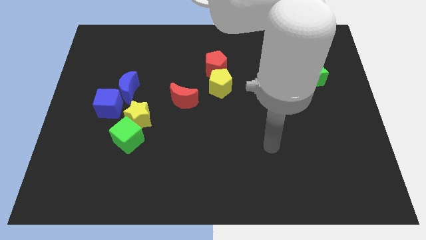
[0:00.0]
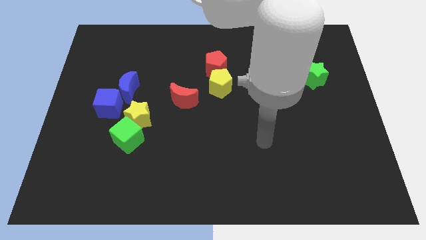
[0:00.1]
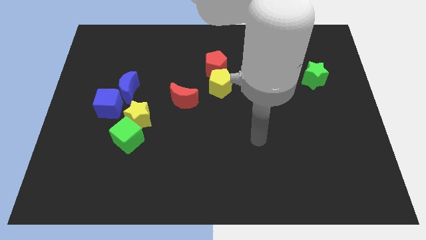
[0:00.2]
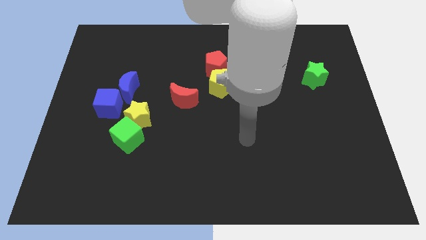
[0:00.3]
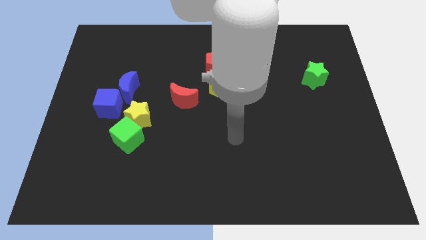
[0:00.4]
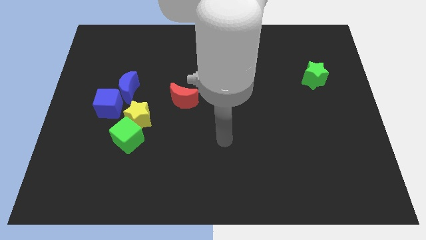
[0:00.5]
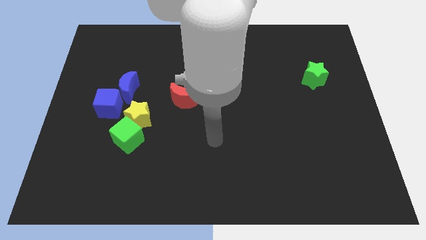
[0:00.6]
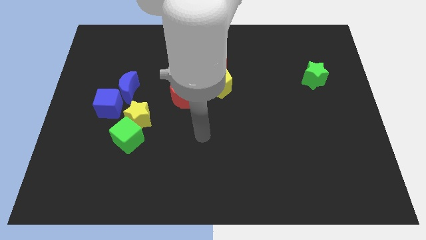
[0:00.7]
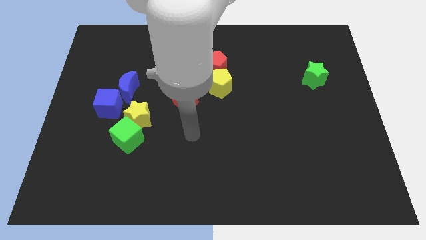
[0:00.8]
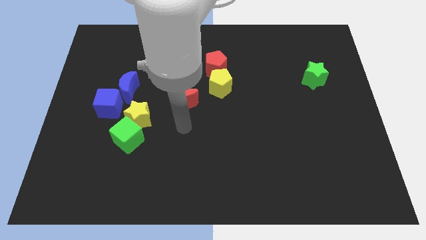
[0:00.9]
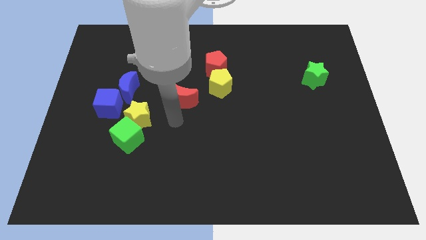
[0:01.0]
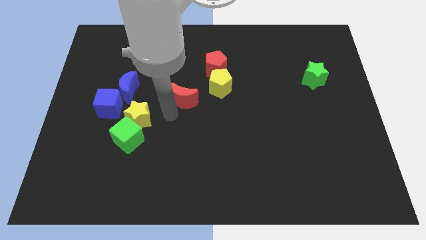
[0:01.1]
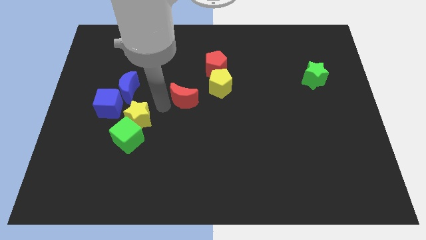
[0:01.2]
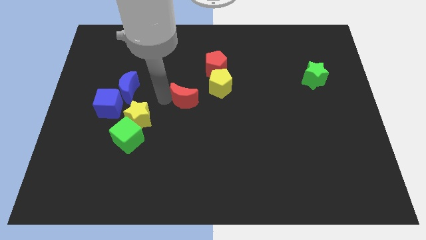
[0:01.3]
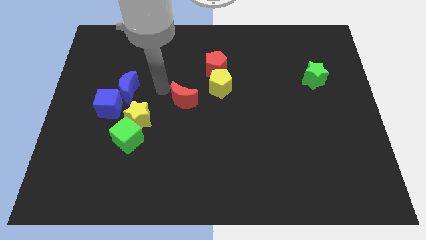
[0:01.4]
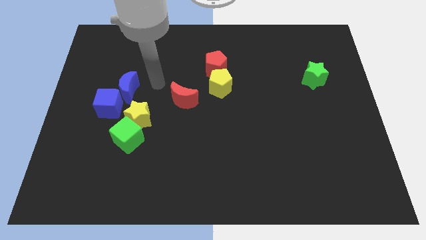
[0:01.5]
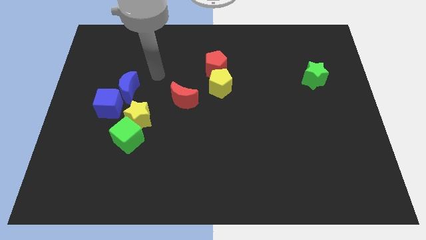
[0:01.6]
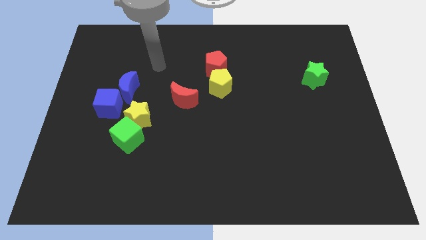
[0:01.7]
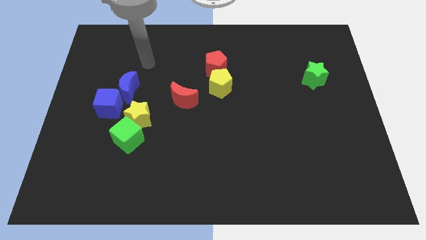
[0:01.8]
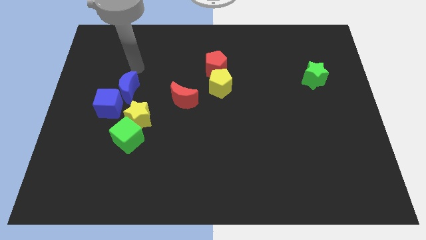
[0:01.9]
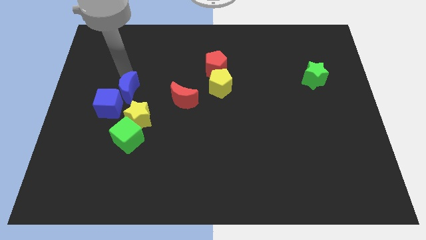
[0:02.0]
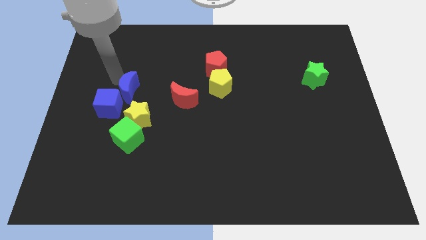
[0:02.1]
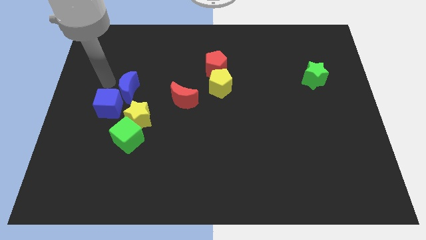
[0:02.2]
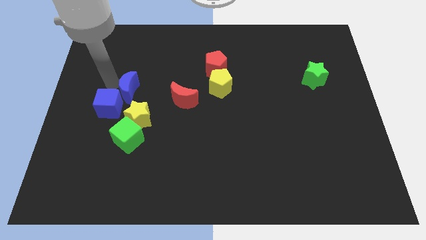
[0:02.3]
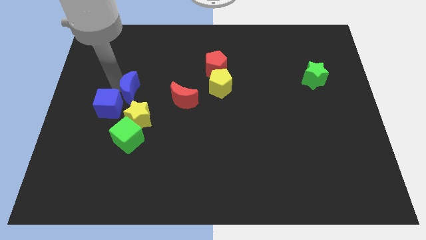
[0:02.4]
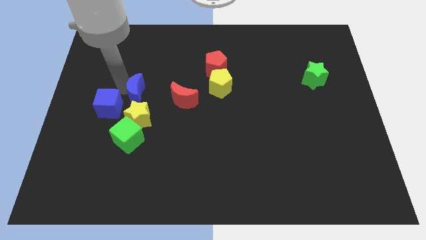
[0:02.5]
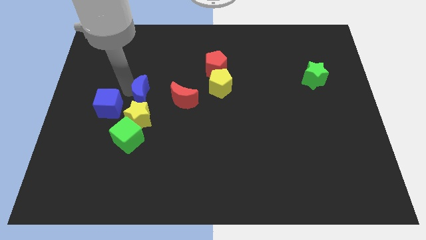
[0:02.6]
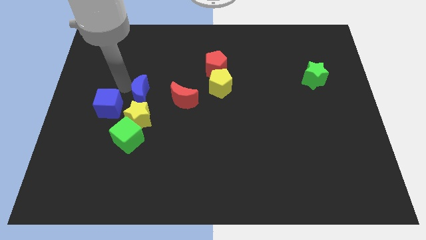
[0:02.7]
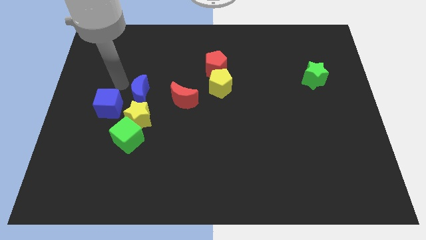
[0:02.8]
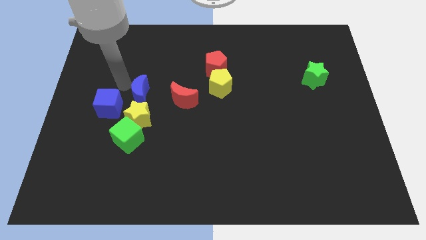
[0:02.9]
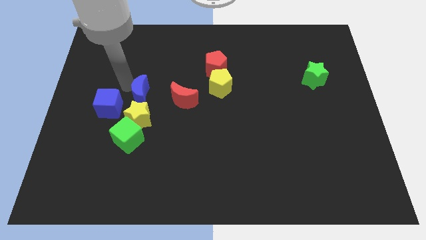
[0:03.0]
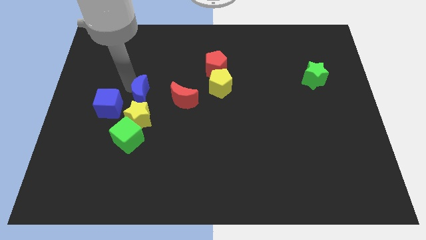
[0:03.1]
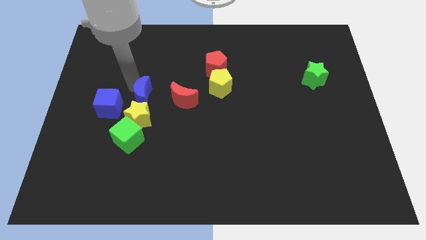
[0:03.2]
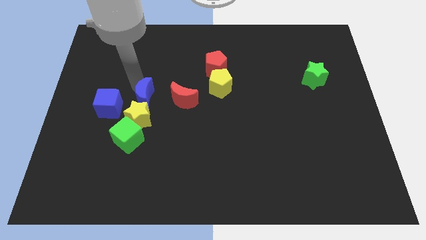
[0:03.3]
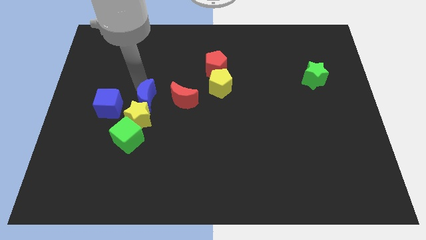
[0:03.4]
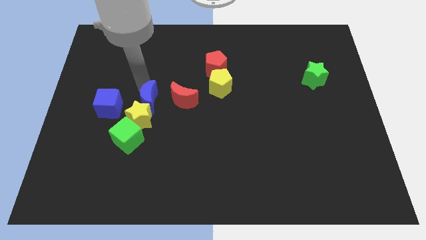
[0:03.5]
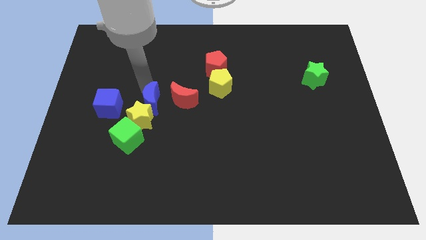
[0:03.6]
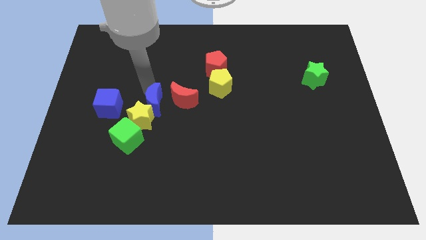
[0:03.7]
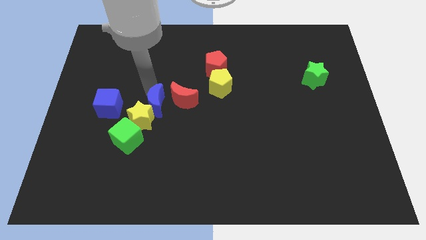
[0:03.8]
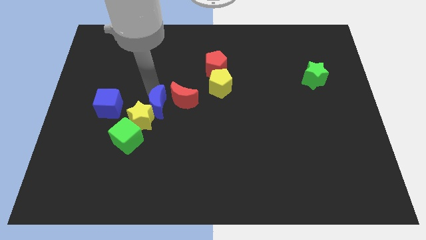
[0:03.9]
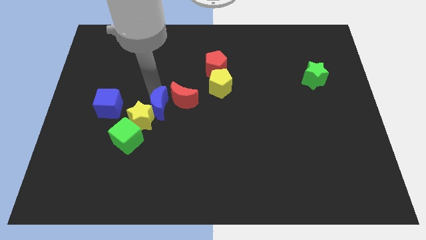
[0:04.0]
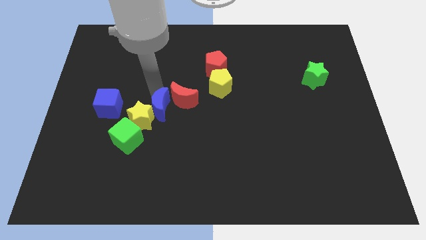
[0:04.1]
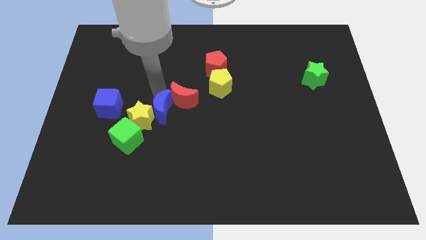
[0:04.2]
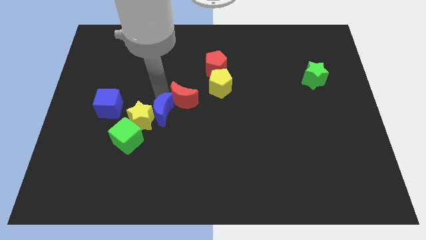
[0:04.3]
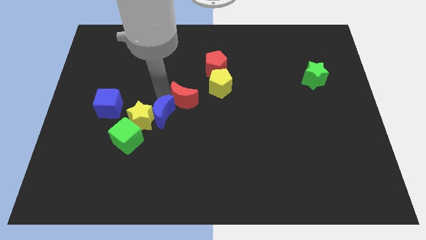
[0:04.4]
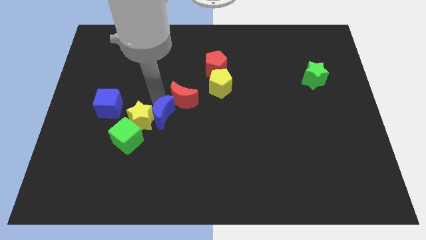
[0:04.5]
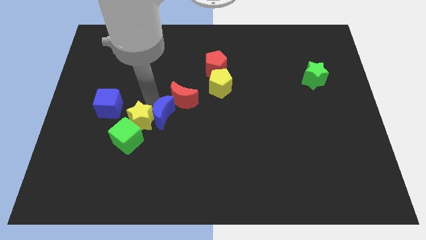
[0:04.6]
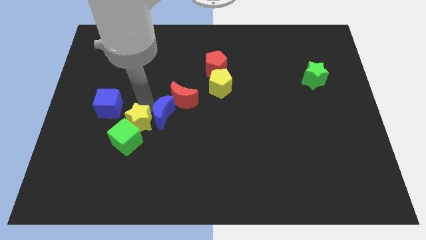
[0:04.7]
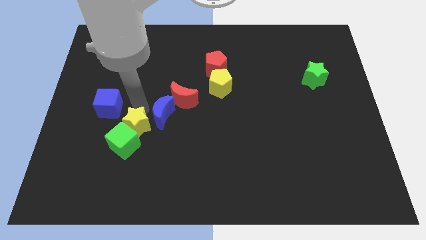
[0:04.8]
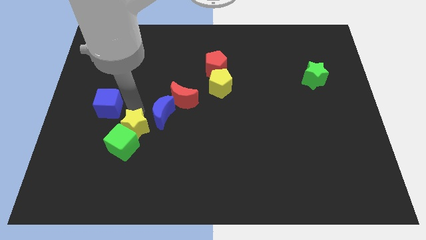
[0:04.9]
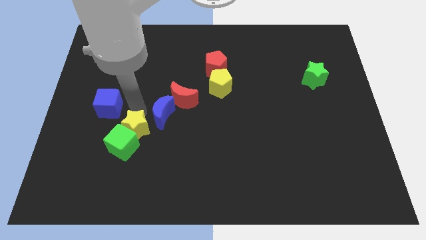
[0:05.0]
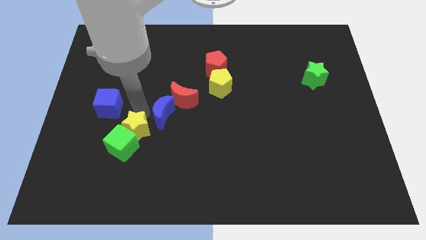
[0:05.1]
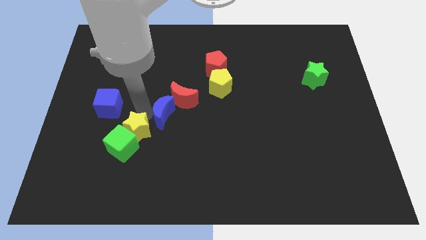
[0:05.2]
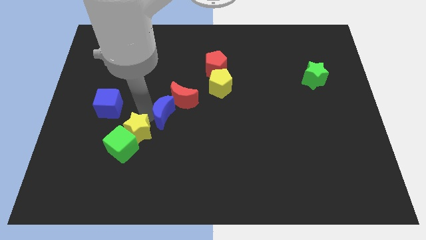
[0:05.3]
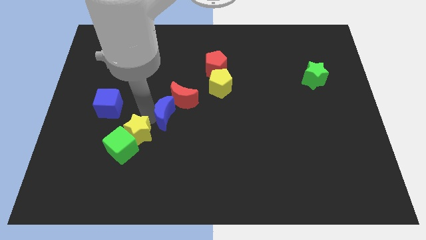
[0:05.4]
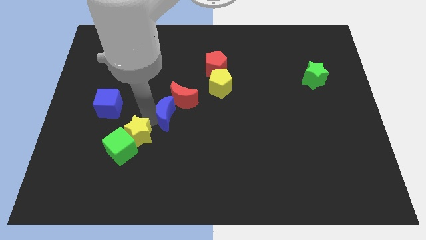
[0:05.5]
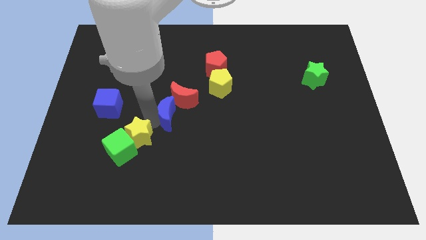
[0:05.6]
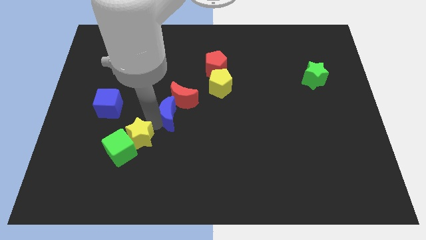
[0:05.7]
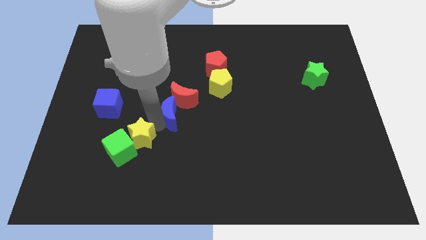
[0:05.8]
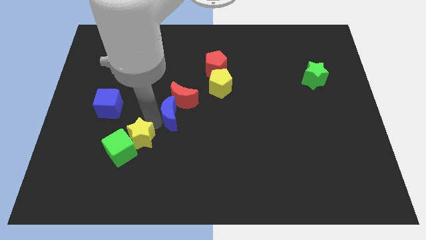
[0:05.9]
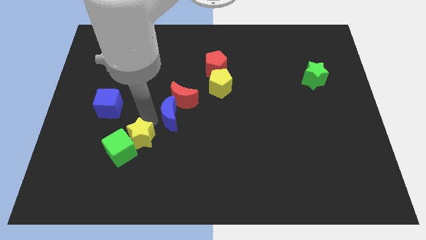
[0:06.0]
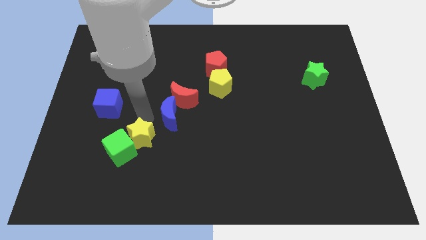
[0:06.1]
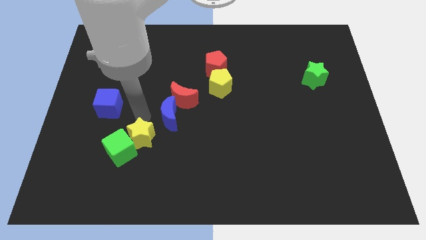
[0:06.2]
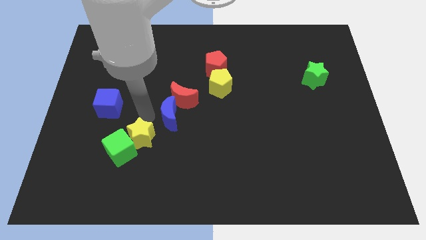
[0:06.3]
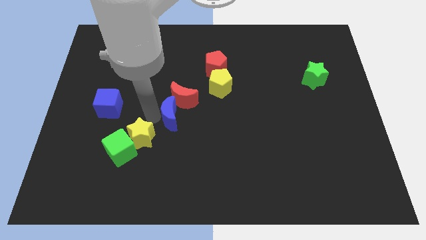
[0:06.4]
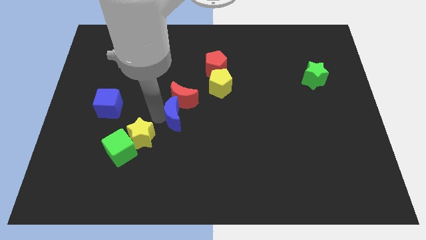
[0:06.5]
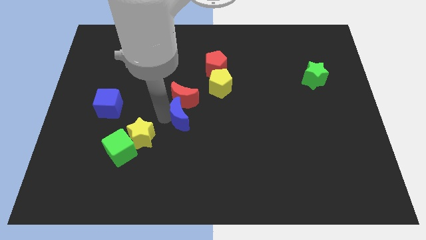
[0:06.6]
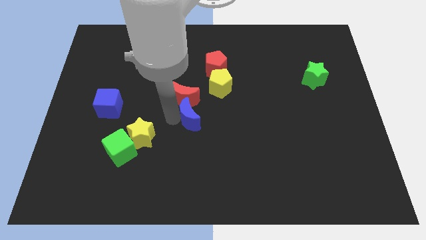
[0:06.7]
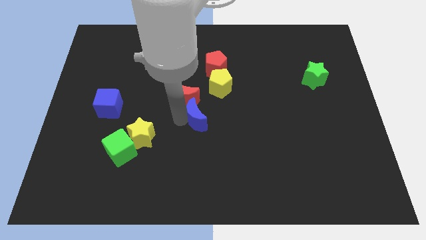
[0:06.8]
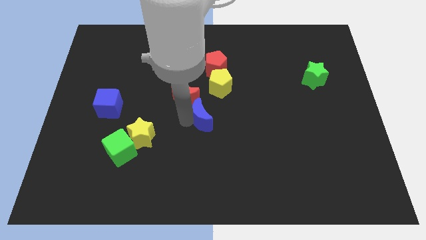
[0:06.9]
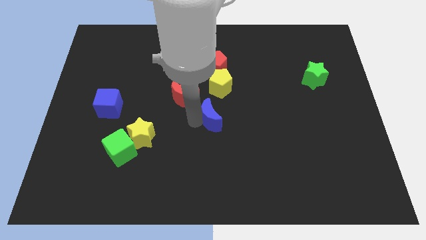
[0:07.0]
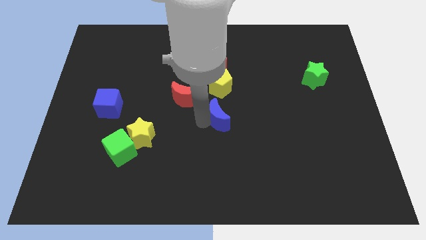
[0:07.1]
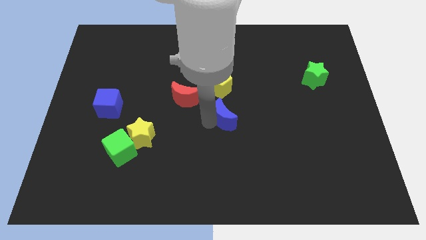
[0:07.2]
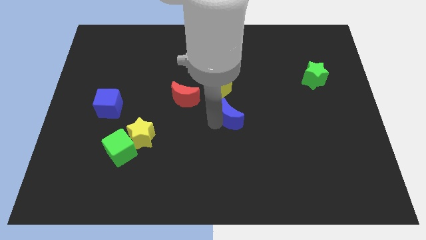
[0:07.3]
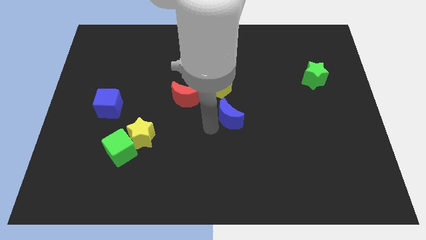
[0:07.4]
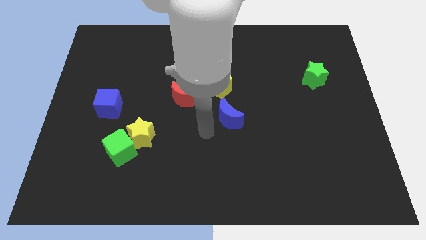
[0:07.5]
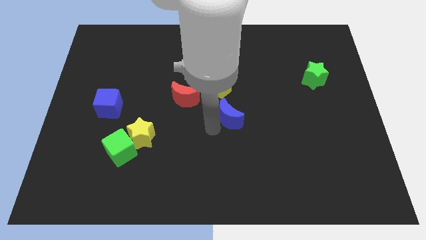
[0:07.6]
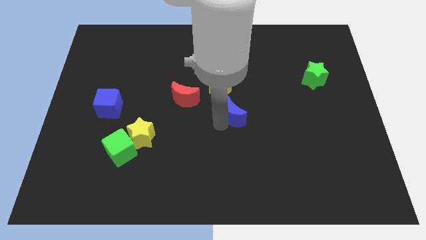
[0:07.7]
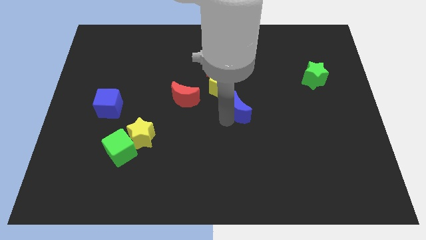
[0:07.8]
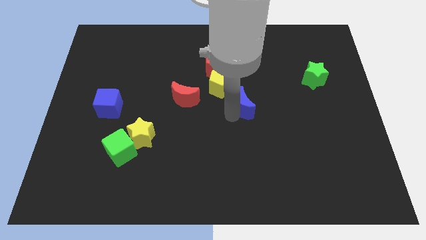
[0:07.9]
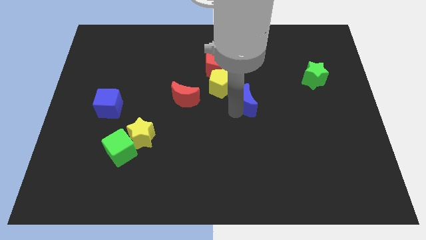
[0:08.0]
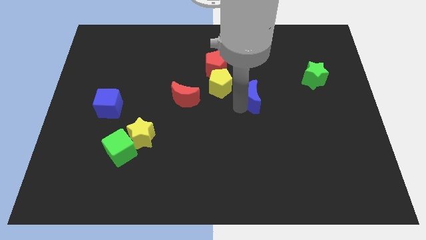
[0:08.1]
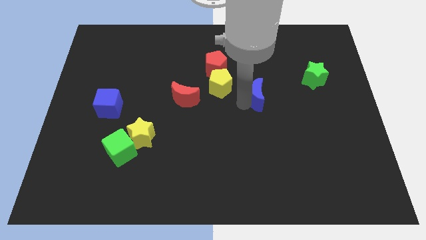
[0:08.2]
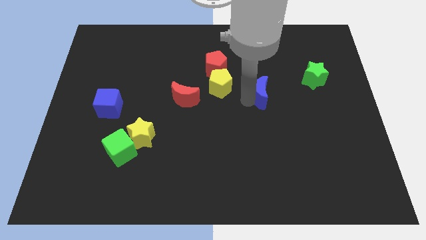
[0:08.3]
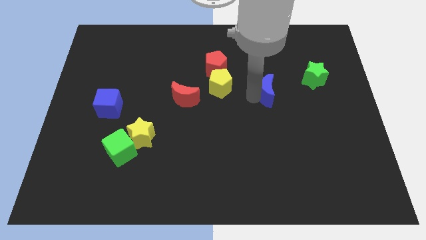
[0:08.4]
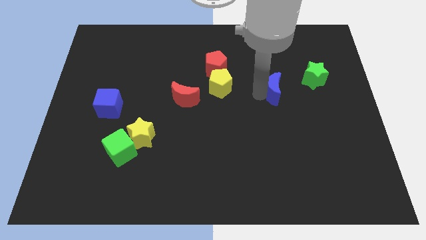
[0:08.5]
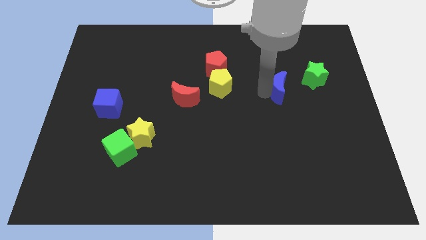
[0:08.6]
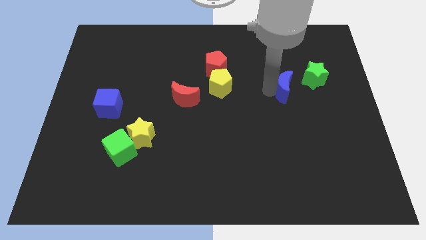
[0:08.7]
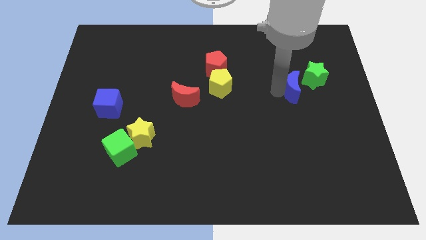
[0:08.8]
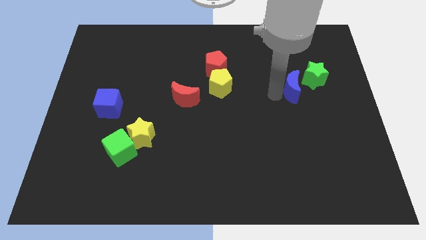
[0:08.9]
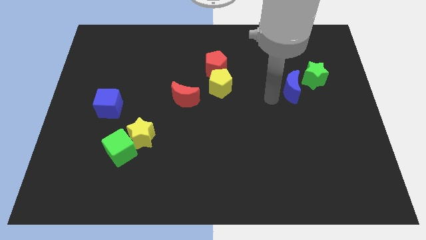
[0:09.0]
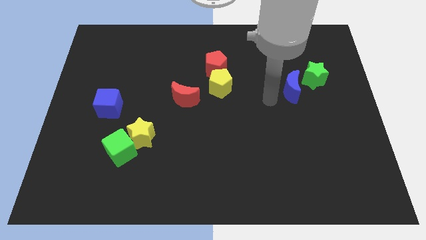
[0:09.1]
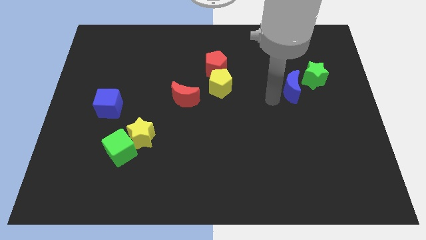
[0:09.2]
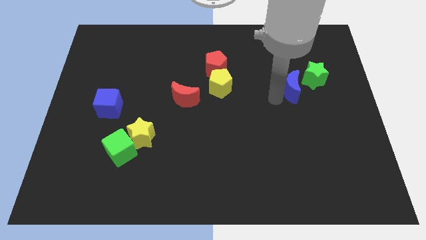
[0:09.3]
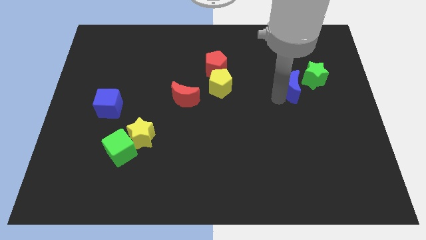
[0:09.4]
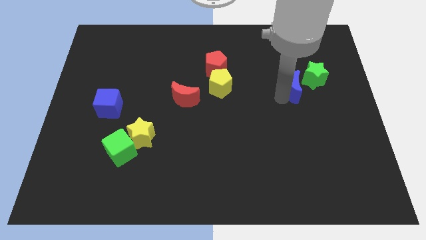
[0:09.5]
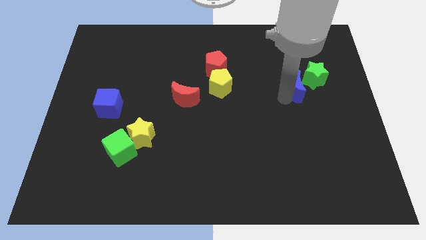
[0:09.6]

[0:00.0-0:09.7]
slide the blue moon towards the green star
